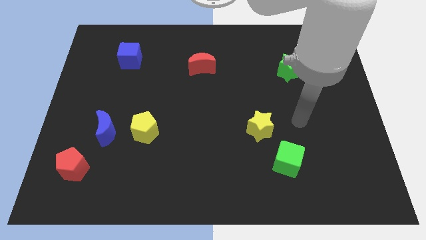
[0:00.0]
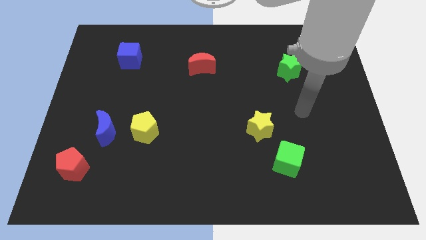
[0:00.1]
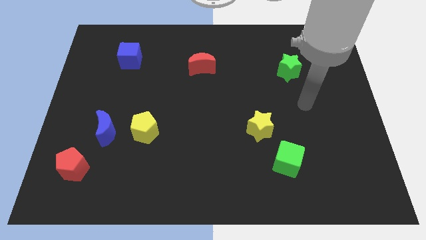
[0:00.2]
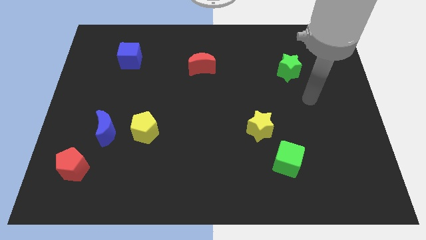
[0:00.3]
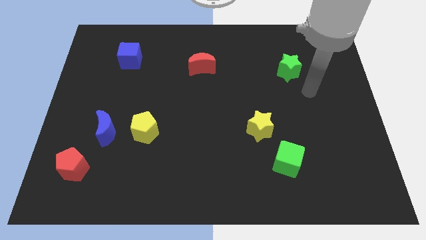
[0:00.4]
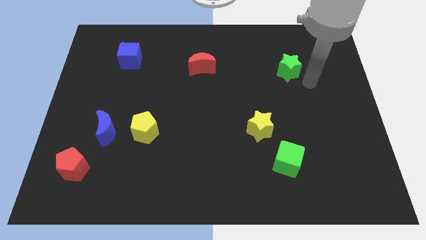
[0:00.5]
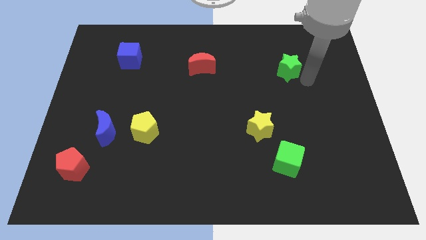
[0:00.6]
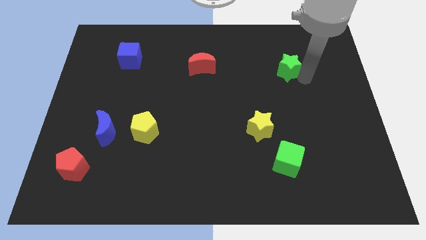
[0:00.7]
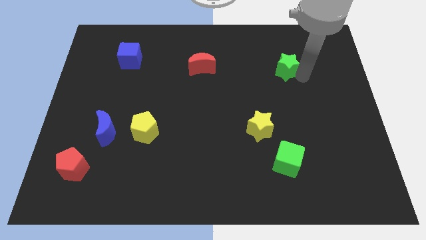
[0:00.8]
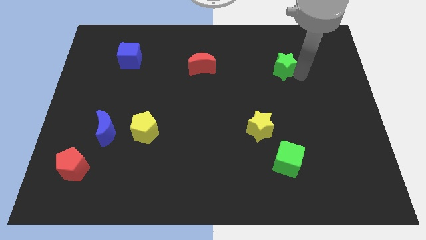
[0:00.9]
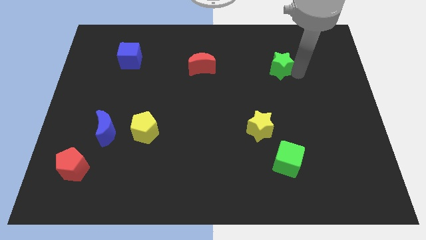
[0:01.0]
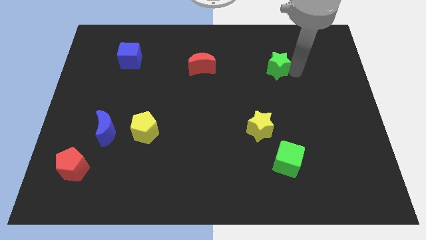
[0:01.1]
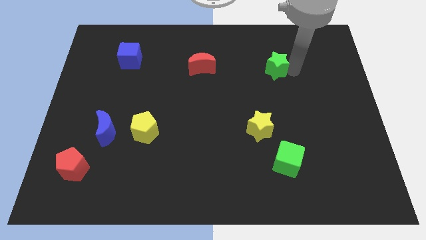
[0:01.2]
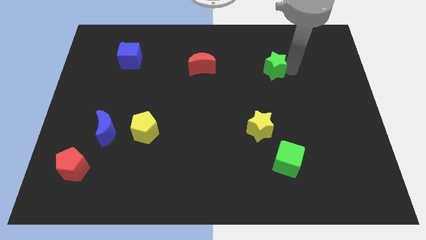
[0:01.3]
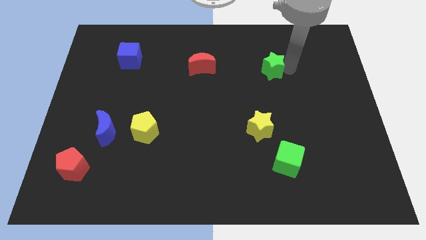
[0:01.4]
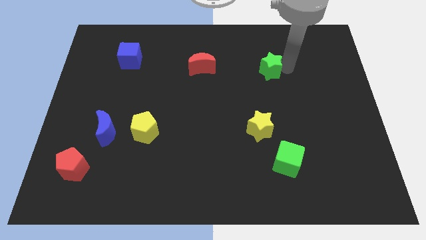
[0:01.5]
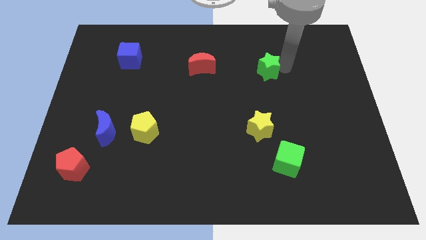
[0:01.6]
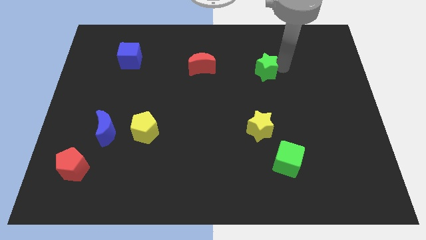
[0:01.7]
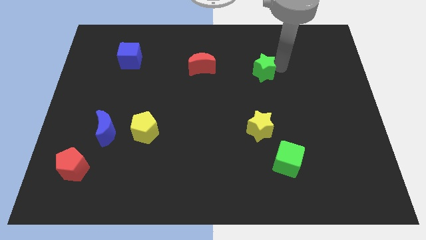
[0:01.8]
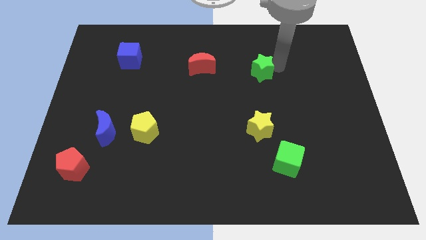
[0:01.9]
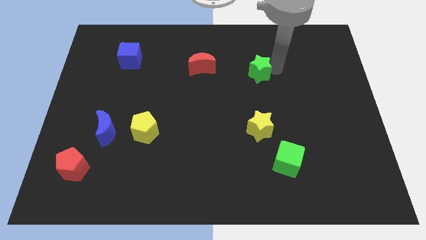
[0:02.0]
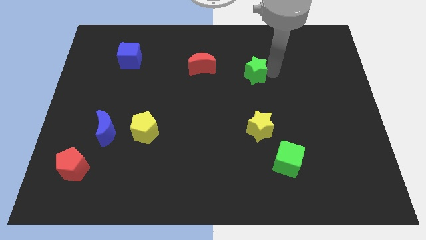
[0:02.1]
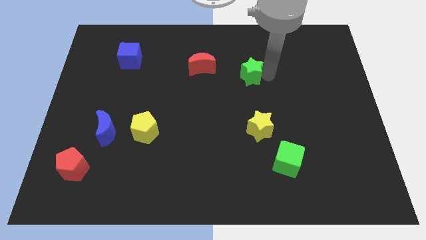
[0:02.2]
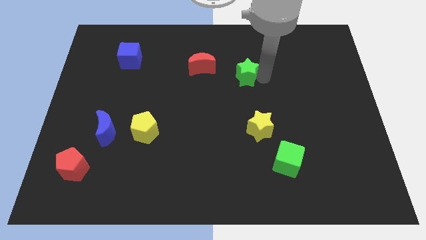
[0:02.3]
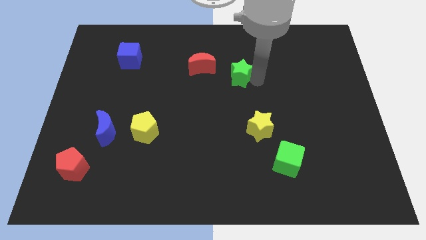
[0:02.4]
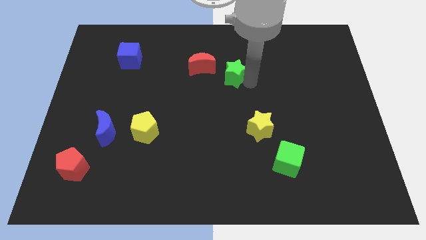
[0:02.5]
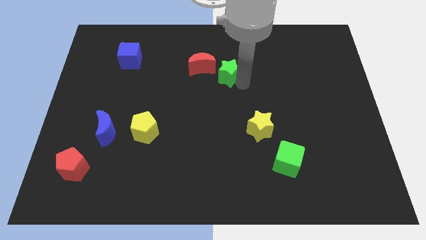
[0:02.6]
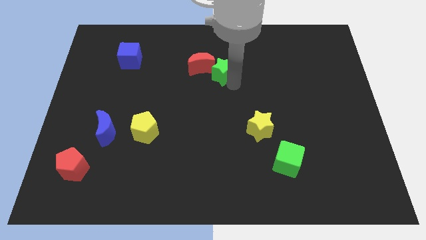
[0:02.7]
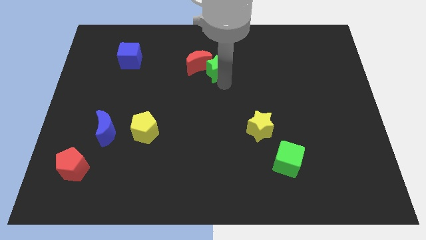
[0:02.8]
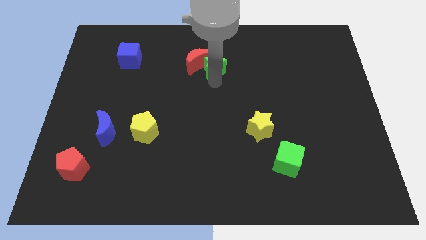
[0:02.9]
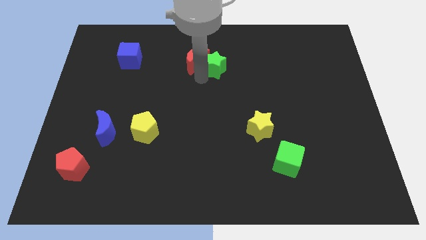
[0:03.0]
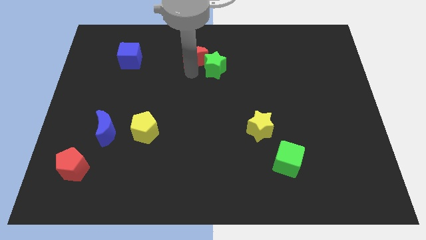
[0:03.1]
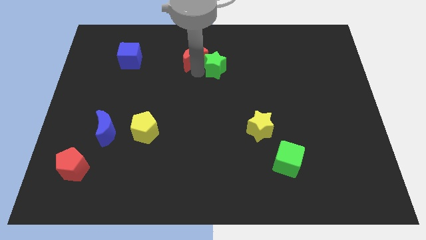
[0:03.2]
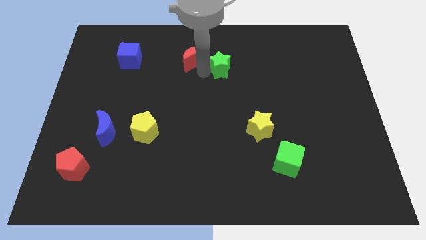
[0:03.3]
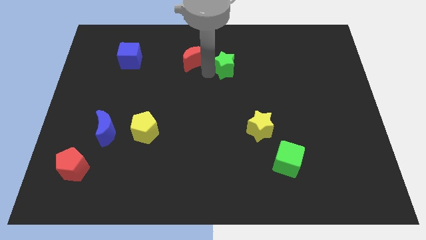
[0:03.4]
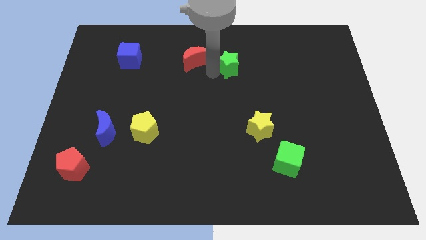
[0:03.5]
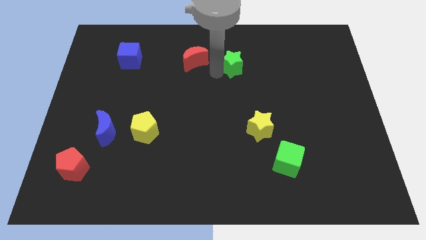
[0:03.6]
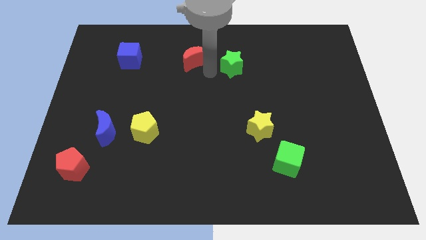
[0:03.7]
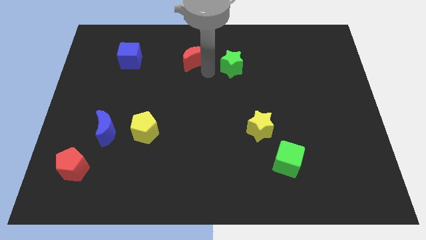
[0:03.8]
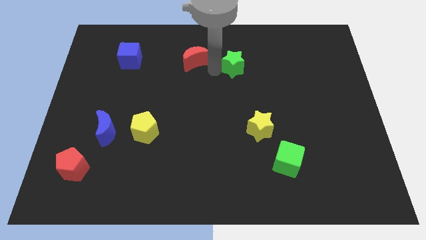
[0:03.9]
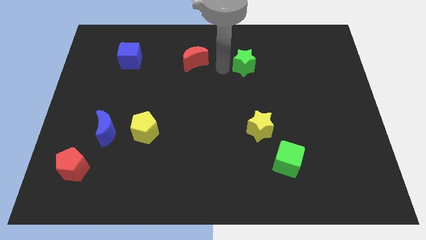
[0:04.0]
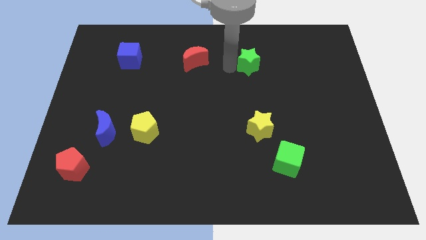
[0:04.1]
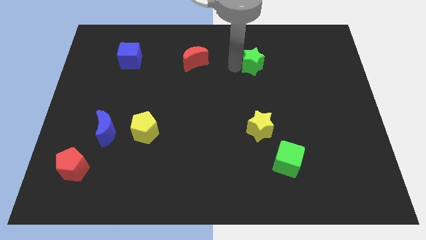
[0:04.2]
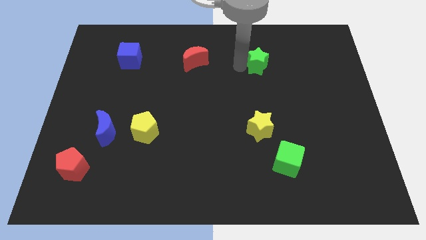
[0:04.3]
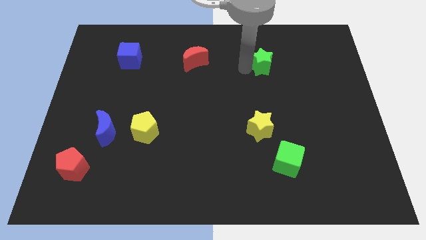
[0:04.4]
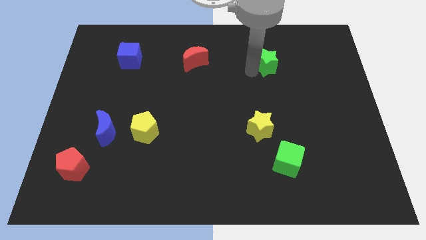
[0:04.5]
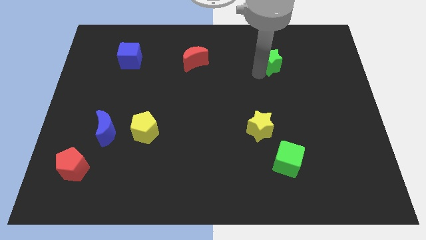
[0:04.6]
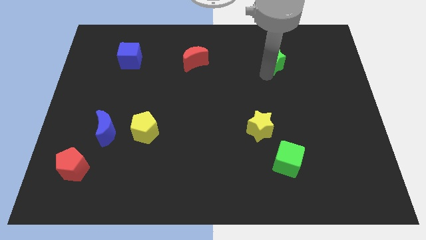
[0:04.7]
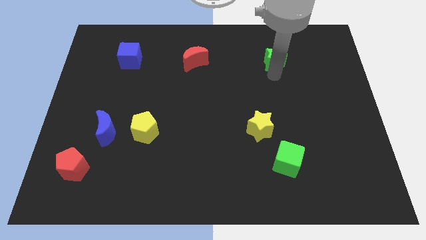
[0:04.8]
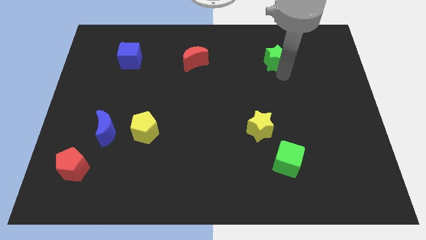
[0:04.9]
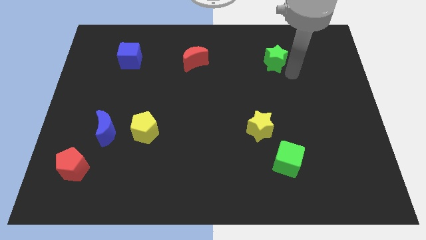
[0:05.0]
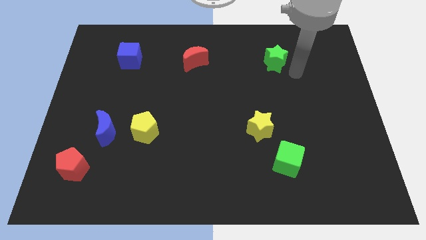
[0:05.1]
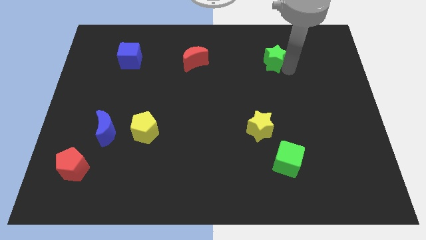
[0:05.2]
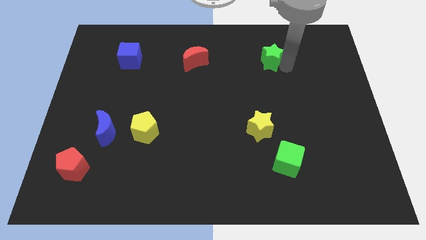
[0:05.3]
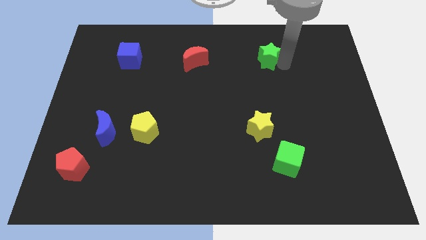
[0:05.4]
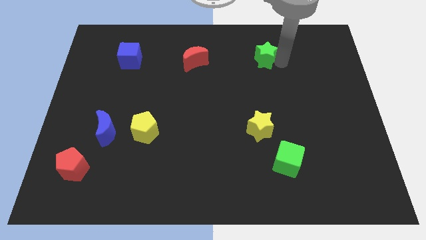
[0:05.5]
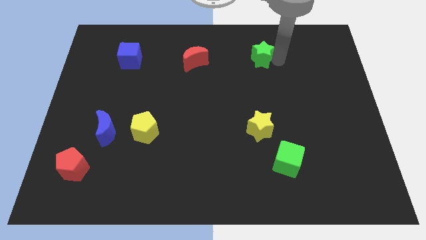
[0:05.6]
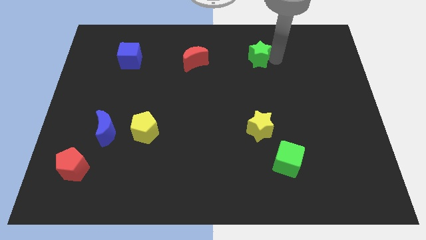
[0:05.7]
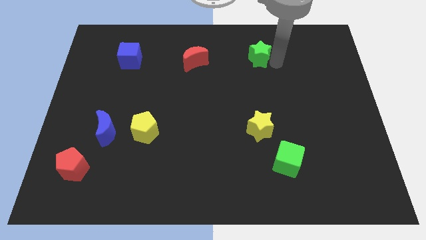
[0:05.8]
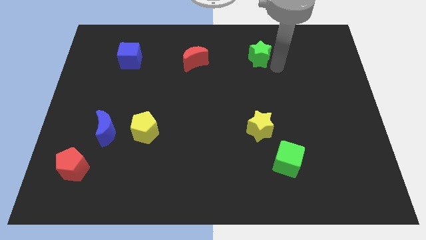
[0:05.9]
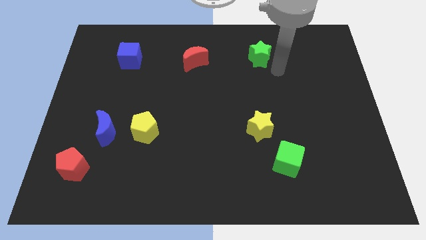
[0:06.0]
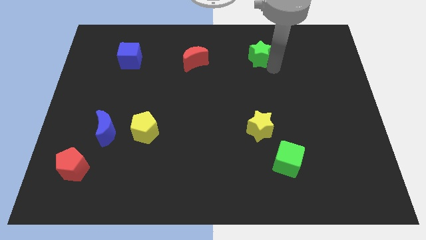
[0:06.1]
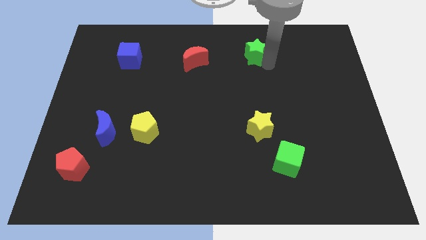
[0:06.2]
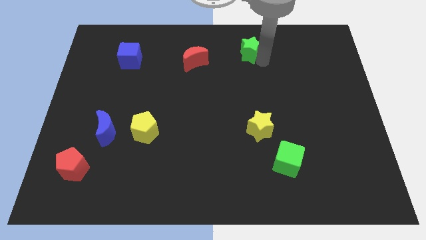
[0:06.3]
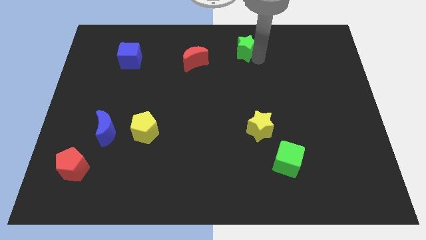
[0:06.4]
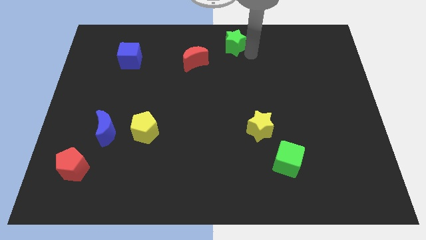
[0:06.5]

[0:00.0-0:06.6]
push the green star to the top side
